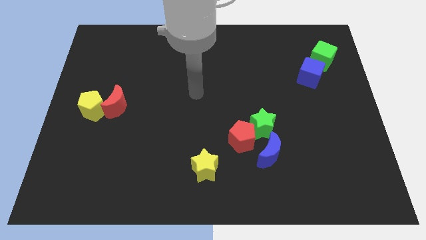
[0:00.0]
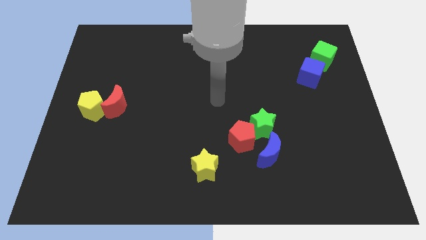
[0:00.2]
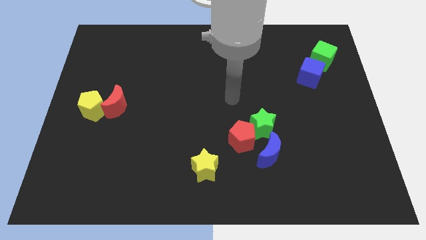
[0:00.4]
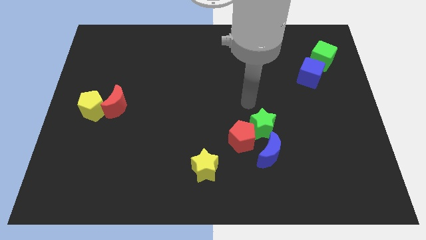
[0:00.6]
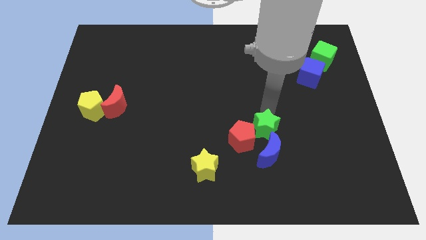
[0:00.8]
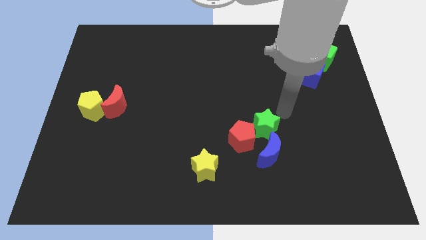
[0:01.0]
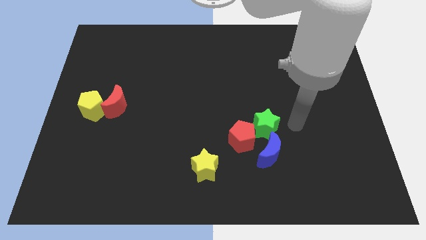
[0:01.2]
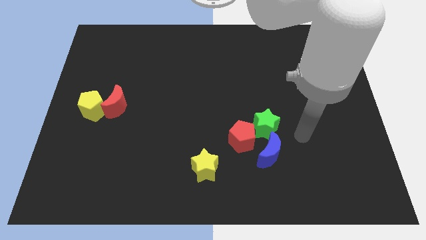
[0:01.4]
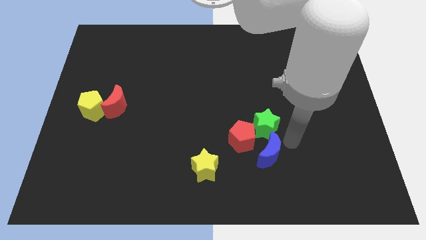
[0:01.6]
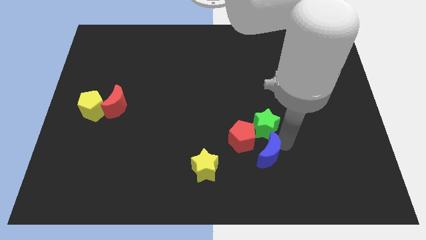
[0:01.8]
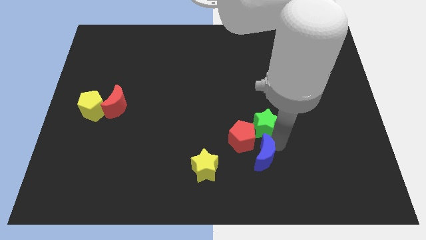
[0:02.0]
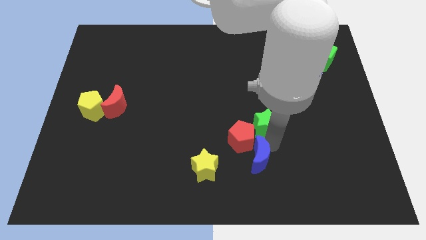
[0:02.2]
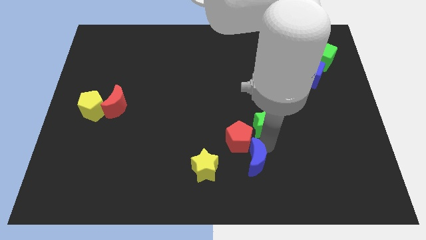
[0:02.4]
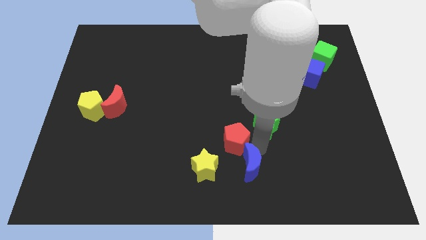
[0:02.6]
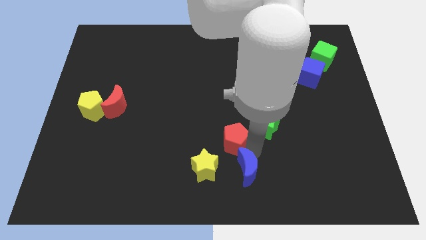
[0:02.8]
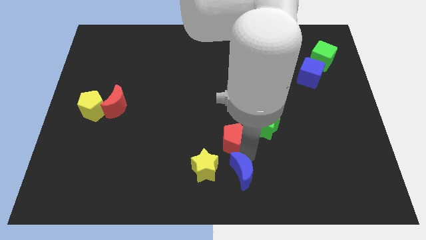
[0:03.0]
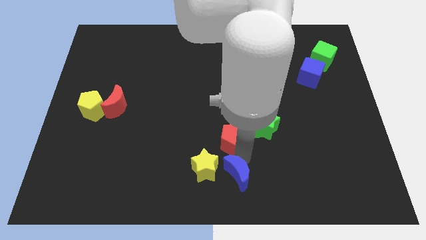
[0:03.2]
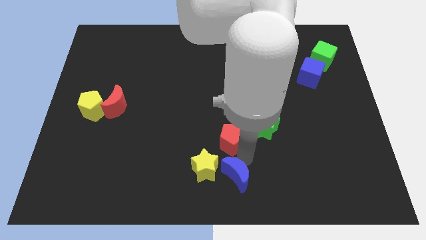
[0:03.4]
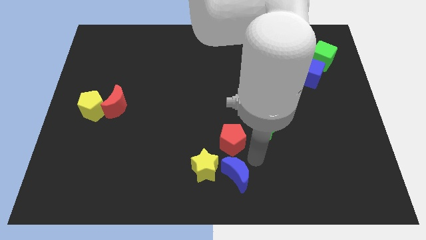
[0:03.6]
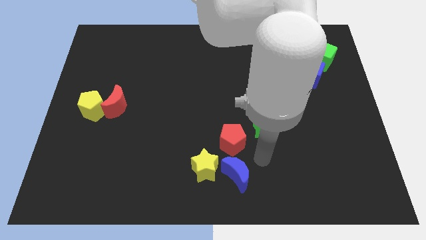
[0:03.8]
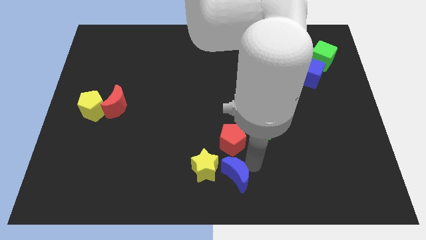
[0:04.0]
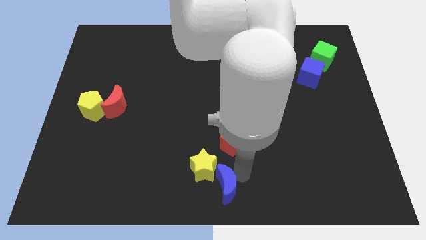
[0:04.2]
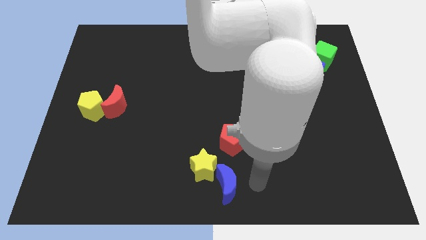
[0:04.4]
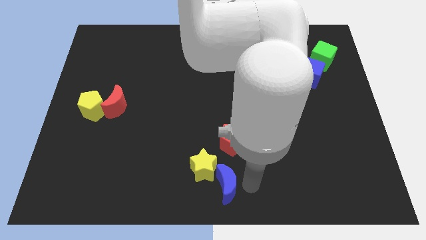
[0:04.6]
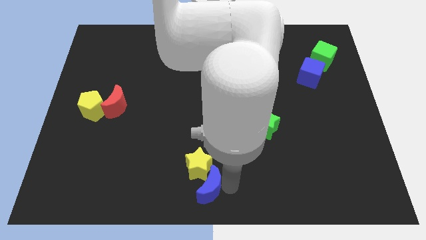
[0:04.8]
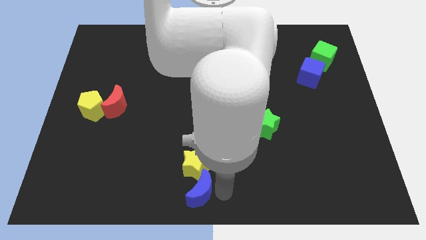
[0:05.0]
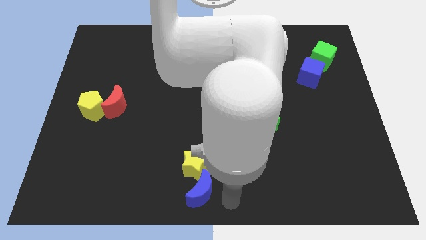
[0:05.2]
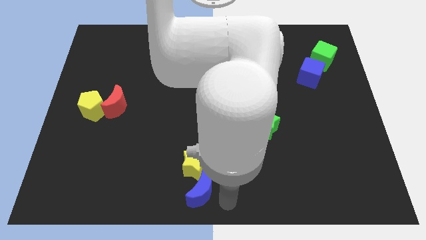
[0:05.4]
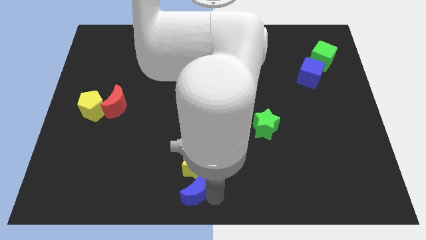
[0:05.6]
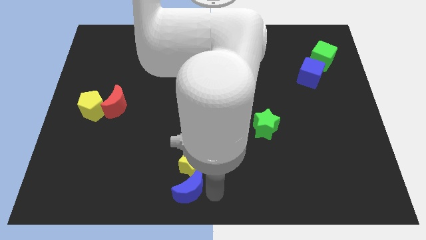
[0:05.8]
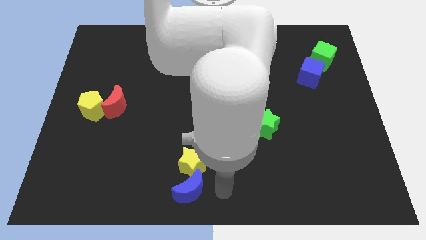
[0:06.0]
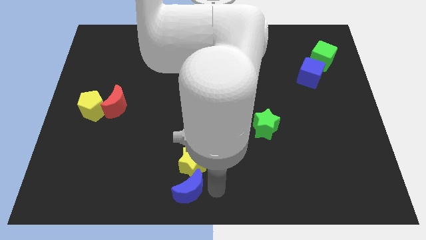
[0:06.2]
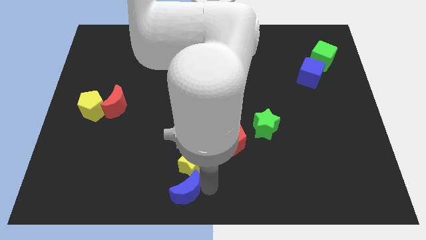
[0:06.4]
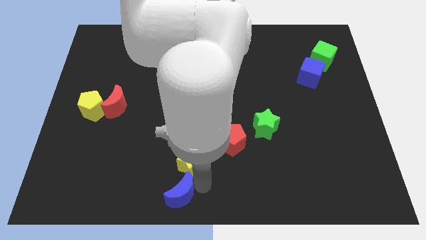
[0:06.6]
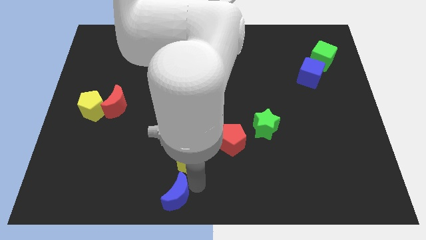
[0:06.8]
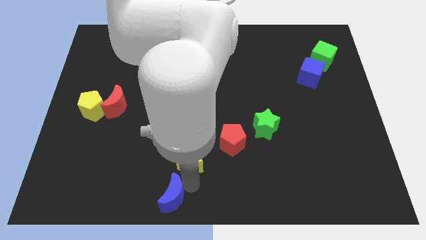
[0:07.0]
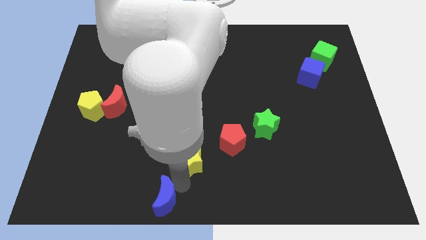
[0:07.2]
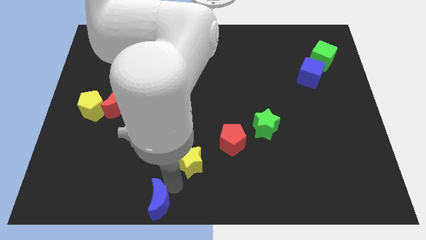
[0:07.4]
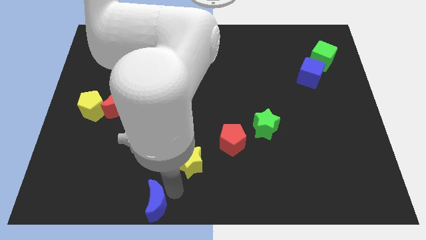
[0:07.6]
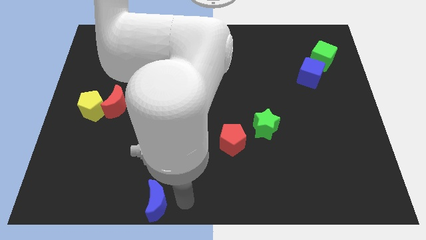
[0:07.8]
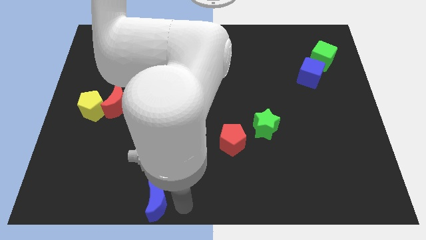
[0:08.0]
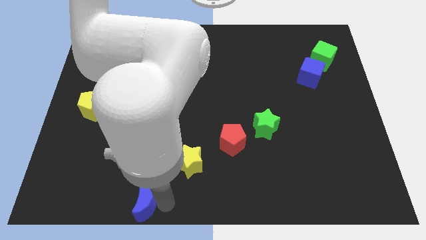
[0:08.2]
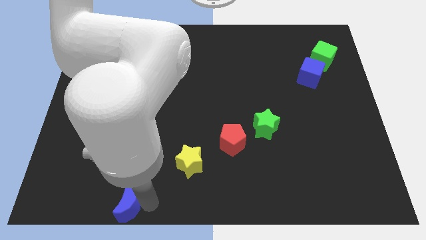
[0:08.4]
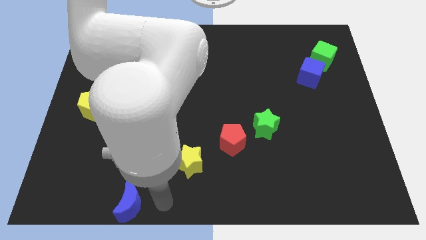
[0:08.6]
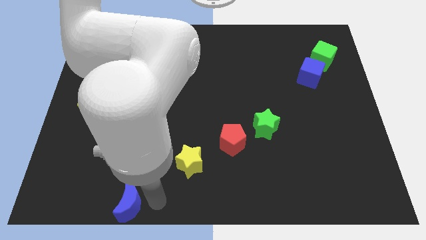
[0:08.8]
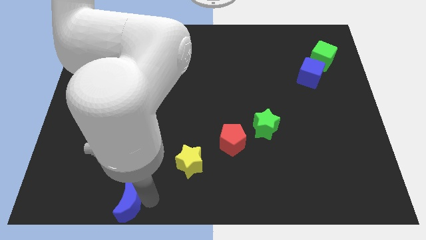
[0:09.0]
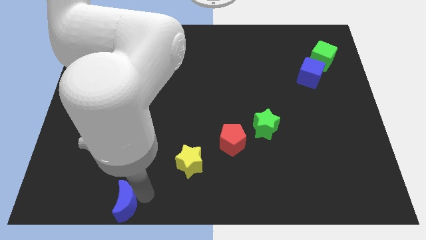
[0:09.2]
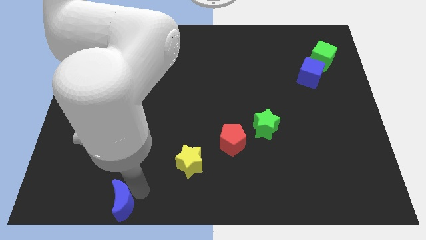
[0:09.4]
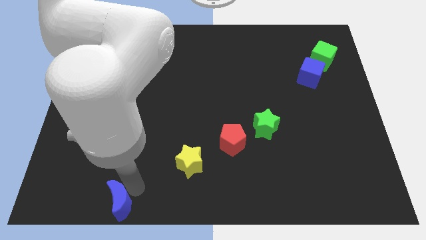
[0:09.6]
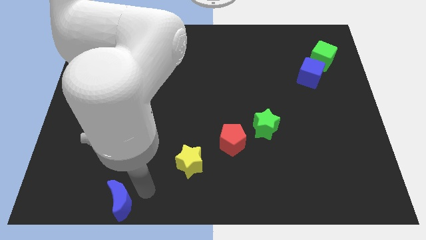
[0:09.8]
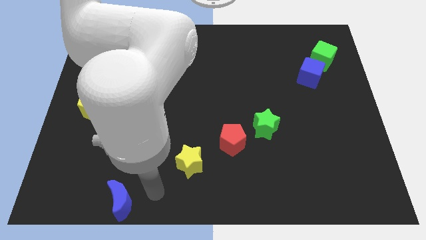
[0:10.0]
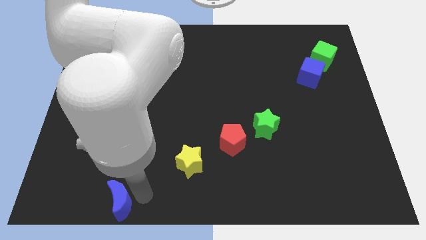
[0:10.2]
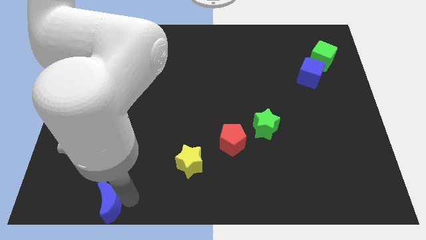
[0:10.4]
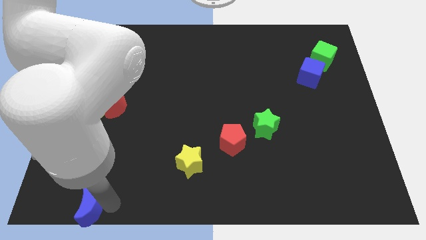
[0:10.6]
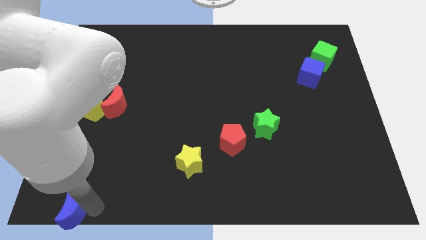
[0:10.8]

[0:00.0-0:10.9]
move the blue moon to the lower left corner

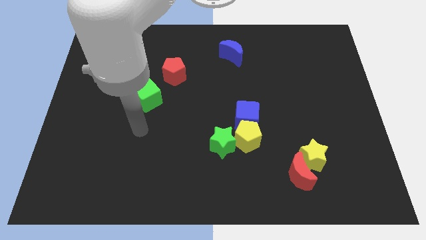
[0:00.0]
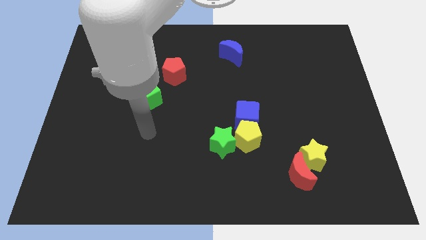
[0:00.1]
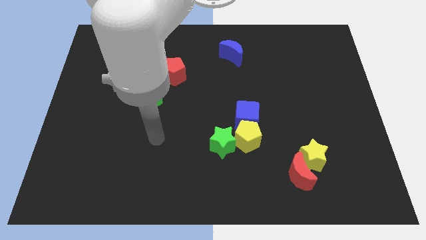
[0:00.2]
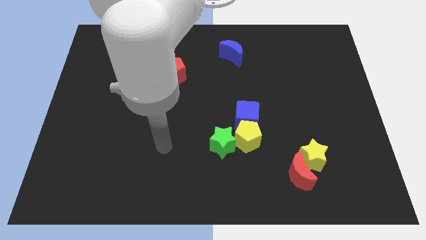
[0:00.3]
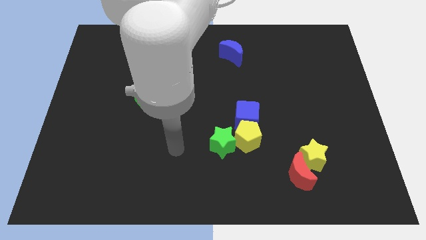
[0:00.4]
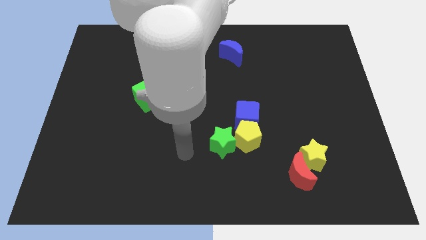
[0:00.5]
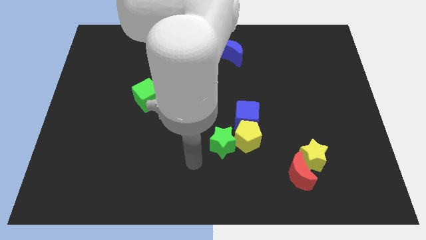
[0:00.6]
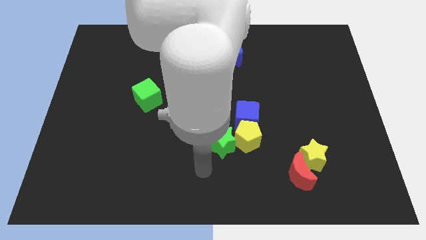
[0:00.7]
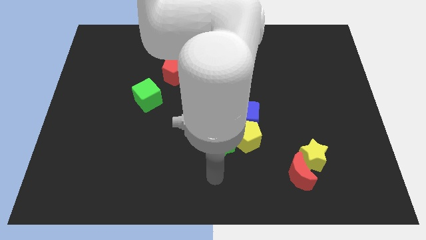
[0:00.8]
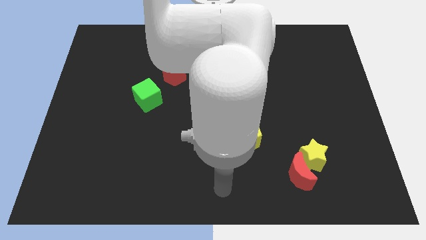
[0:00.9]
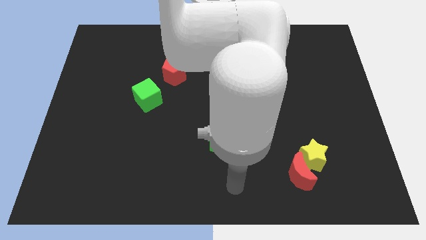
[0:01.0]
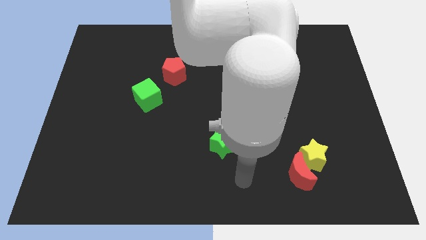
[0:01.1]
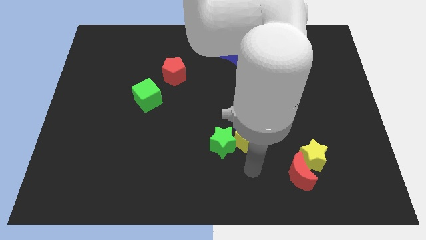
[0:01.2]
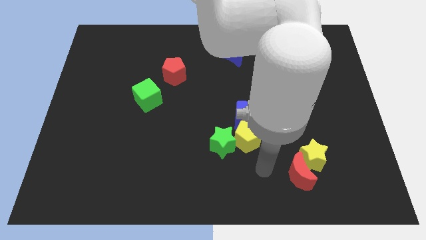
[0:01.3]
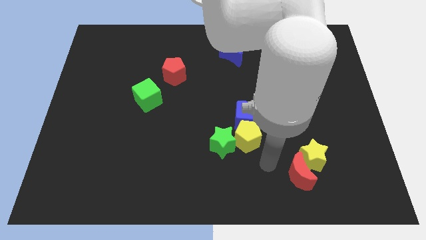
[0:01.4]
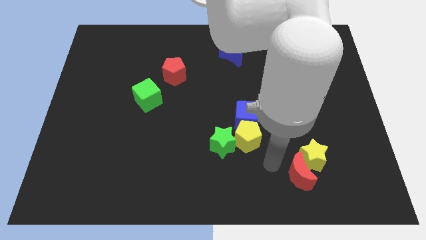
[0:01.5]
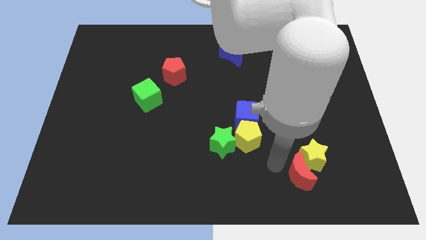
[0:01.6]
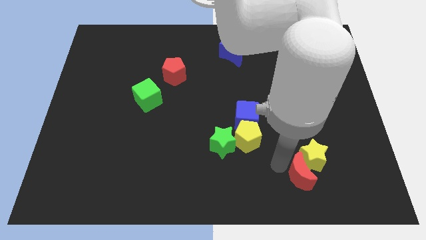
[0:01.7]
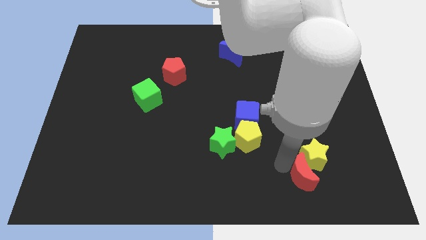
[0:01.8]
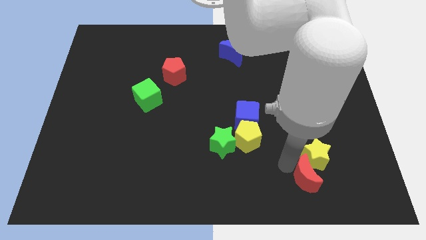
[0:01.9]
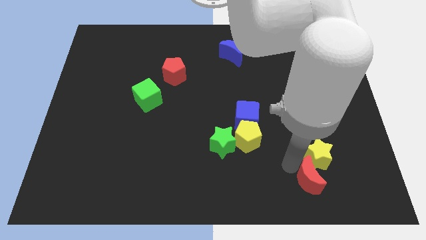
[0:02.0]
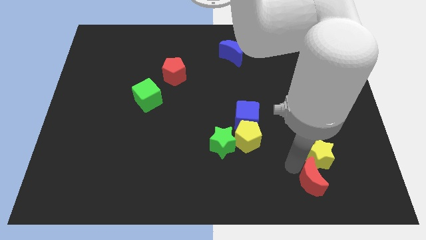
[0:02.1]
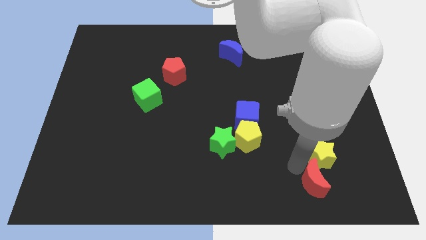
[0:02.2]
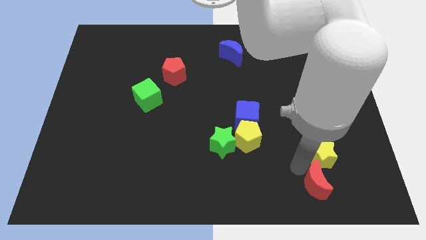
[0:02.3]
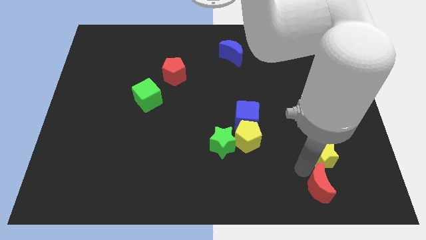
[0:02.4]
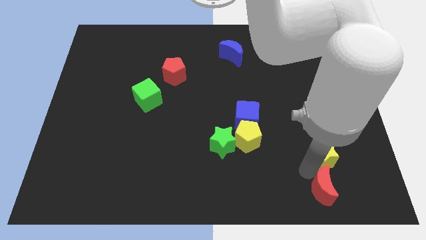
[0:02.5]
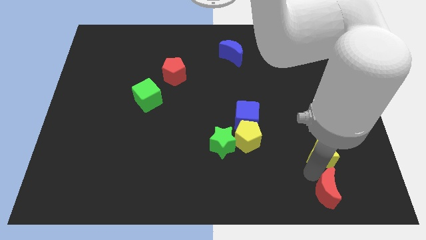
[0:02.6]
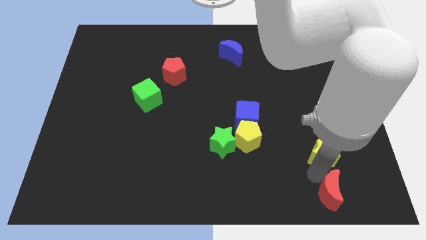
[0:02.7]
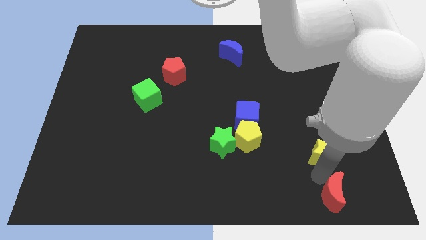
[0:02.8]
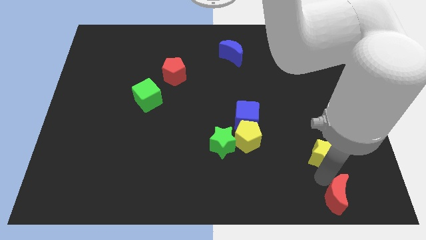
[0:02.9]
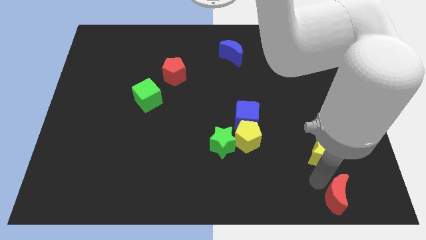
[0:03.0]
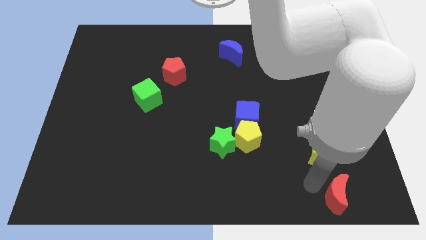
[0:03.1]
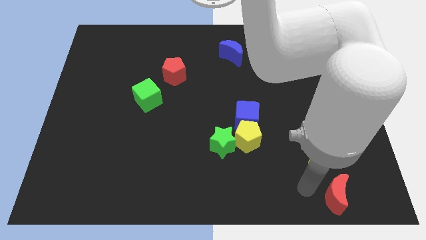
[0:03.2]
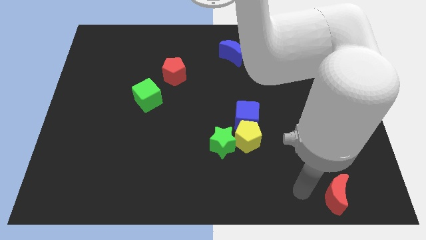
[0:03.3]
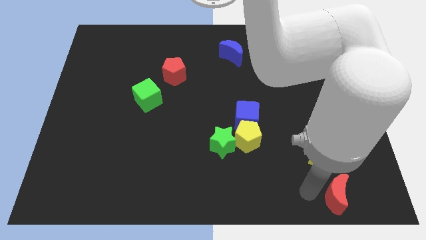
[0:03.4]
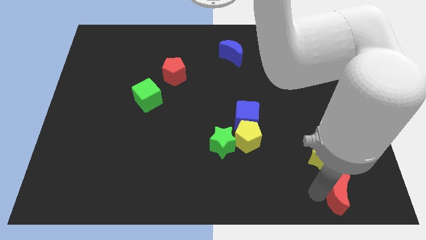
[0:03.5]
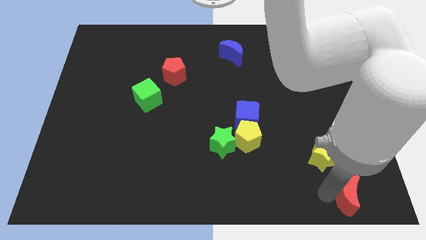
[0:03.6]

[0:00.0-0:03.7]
put the red moon to the bottom right
